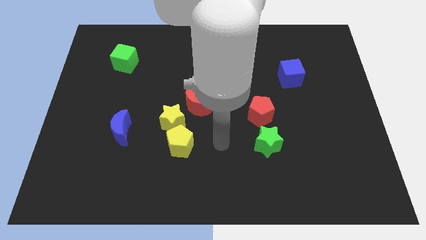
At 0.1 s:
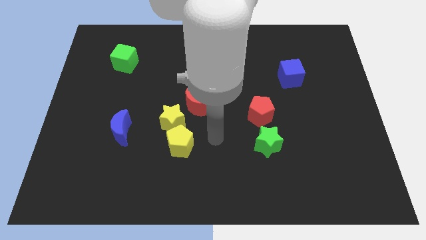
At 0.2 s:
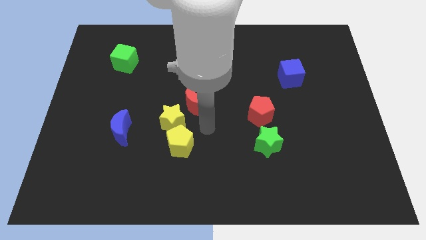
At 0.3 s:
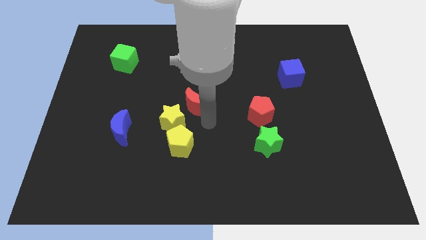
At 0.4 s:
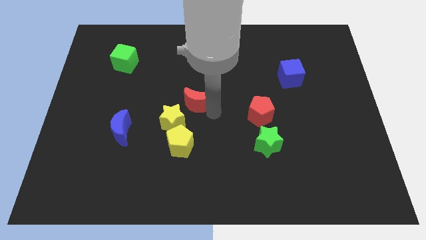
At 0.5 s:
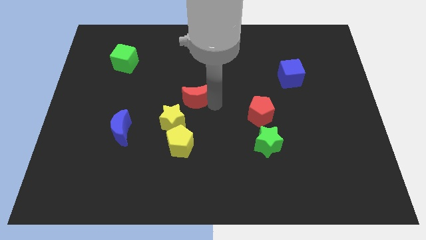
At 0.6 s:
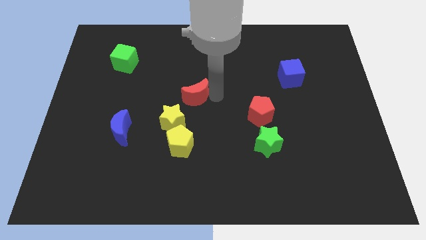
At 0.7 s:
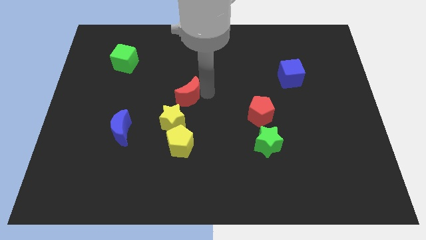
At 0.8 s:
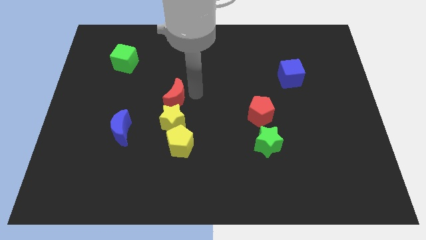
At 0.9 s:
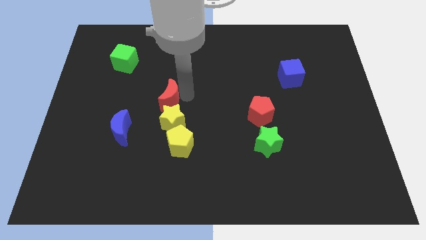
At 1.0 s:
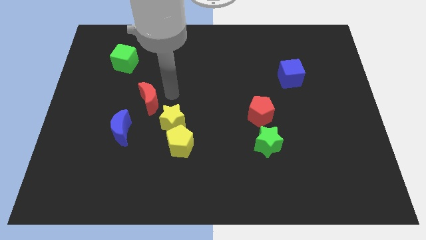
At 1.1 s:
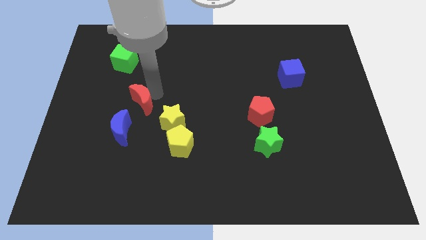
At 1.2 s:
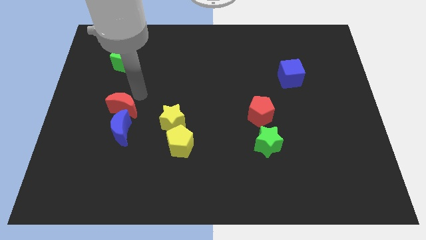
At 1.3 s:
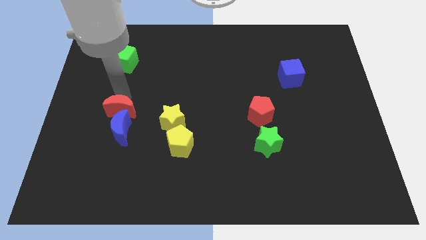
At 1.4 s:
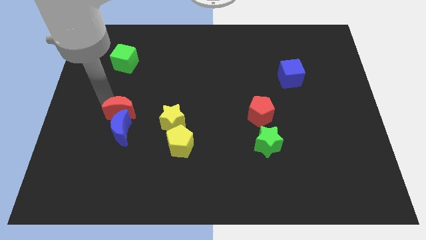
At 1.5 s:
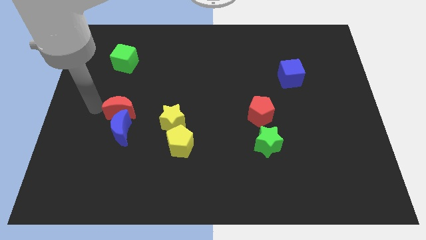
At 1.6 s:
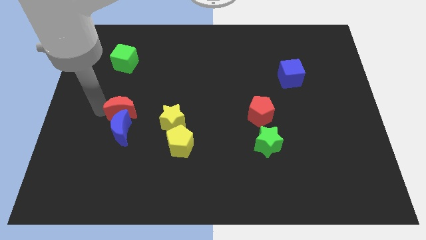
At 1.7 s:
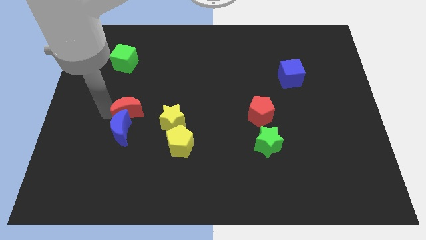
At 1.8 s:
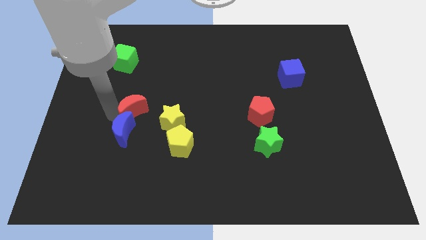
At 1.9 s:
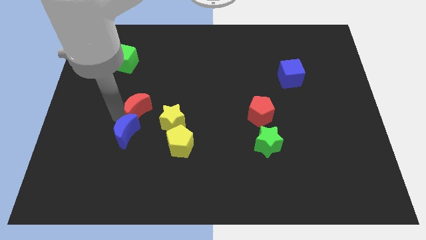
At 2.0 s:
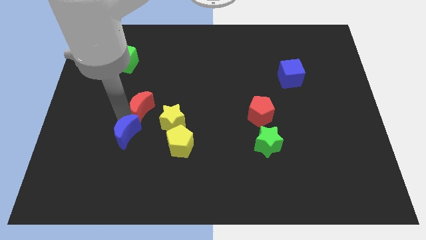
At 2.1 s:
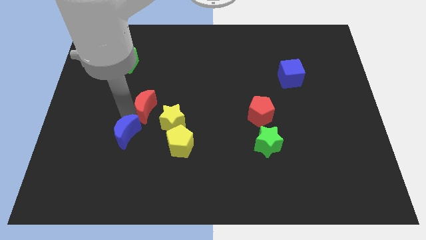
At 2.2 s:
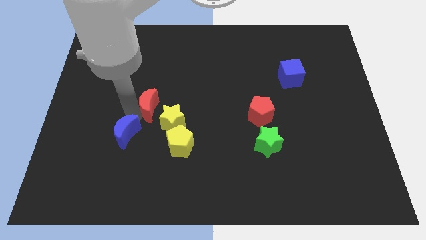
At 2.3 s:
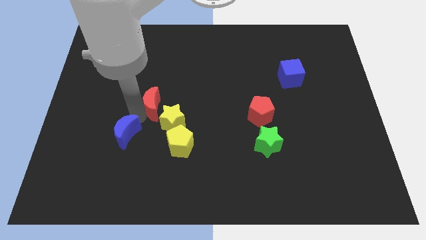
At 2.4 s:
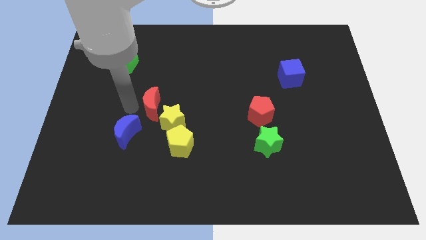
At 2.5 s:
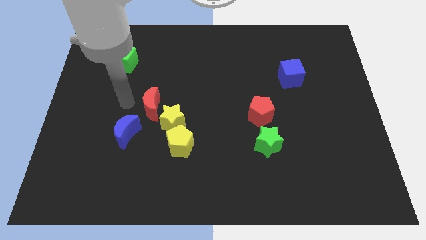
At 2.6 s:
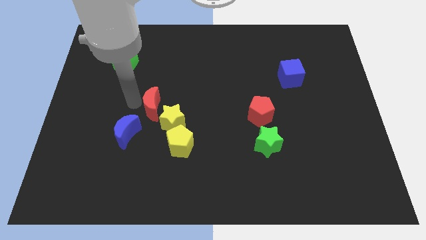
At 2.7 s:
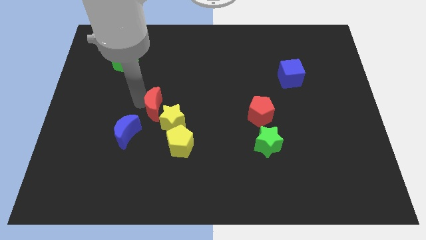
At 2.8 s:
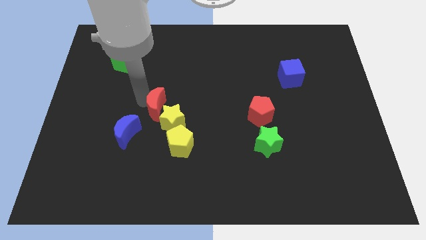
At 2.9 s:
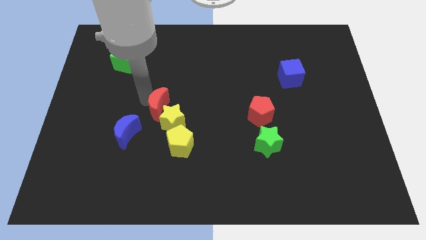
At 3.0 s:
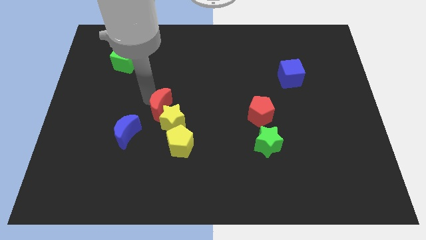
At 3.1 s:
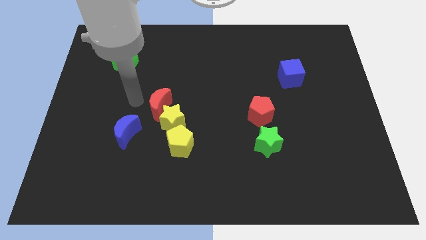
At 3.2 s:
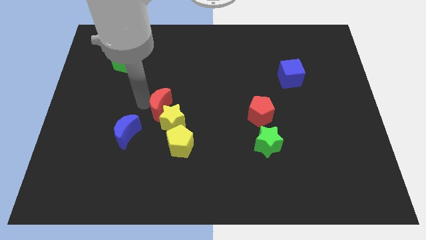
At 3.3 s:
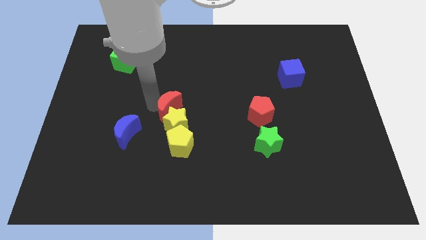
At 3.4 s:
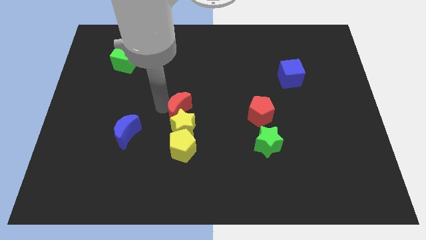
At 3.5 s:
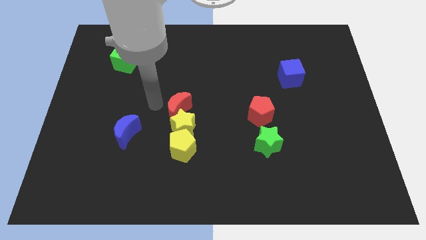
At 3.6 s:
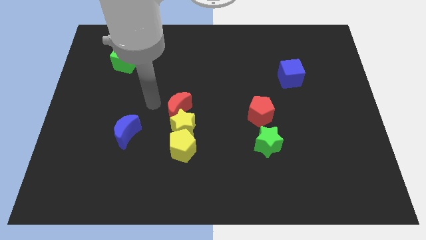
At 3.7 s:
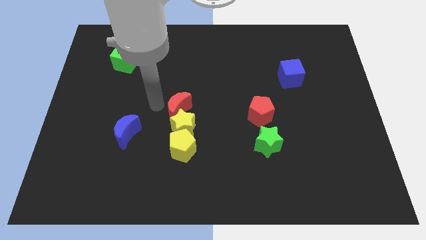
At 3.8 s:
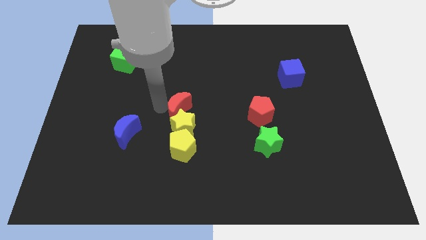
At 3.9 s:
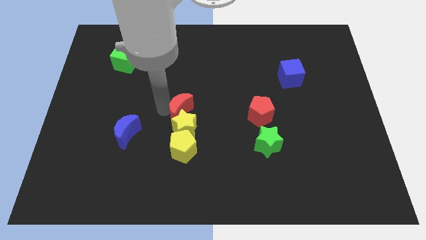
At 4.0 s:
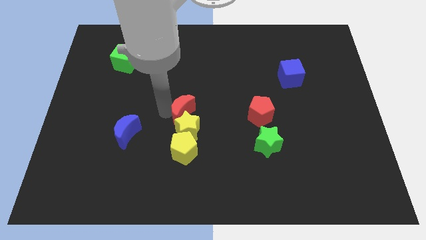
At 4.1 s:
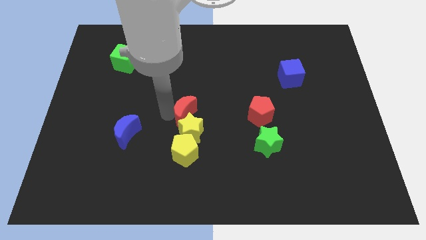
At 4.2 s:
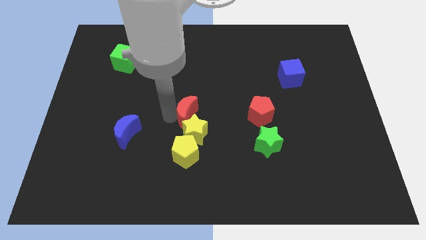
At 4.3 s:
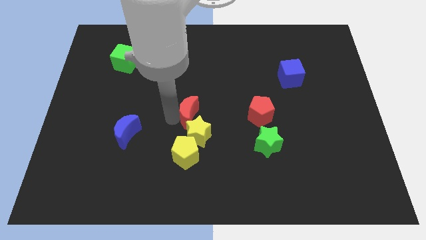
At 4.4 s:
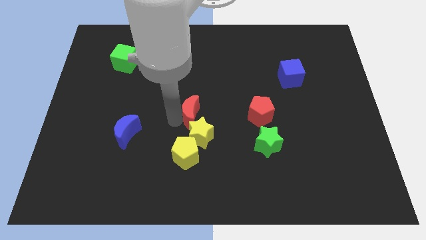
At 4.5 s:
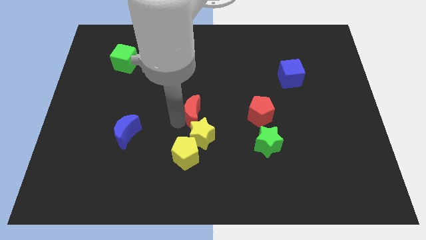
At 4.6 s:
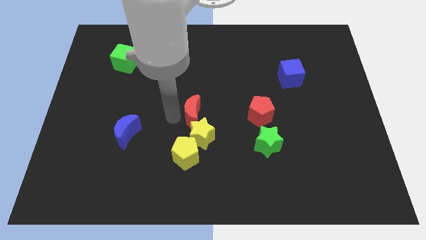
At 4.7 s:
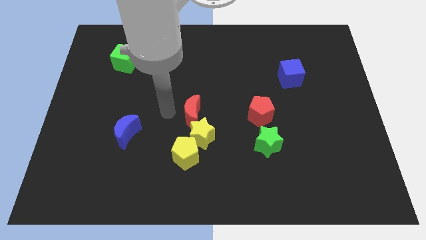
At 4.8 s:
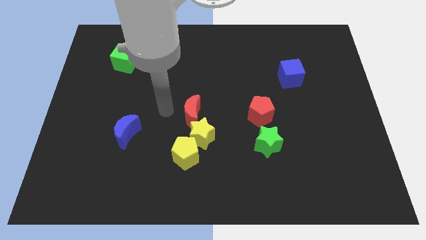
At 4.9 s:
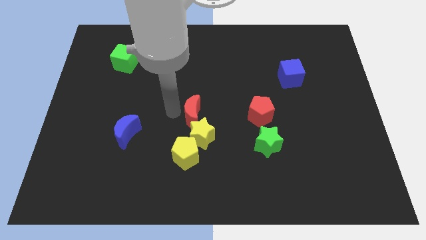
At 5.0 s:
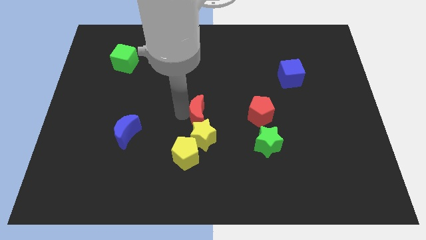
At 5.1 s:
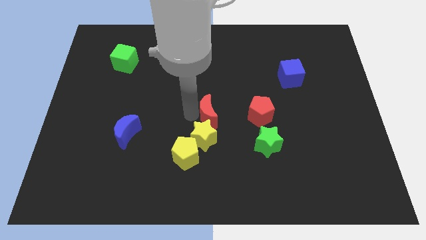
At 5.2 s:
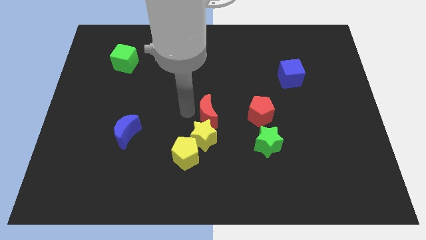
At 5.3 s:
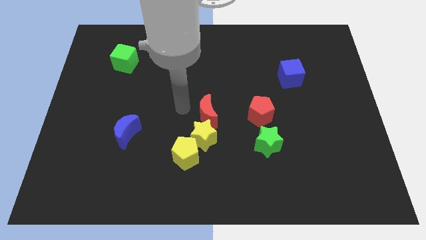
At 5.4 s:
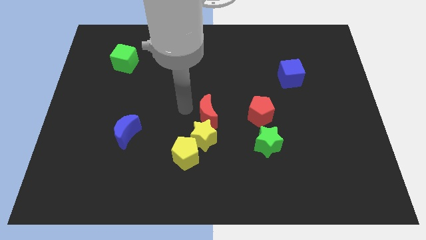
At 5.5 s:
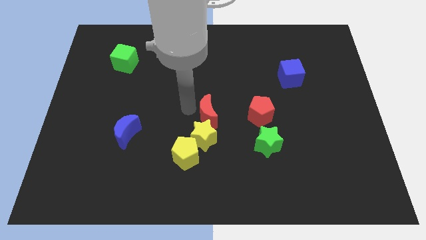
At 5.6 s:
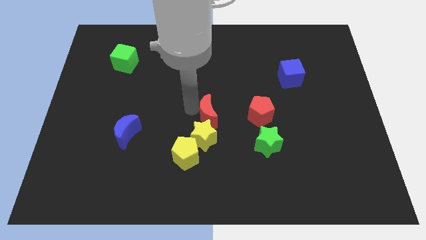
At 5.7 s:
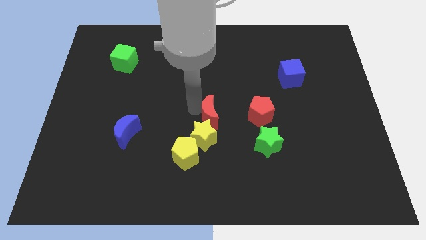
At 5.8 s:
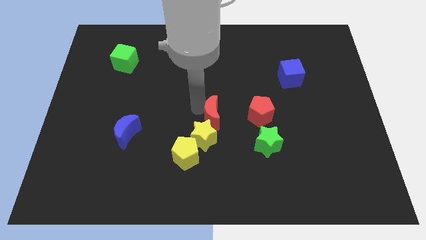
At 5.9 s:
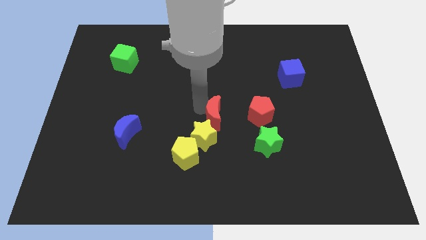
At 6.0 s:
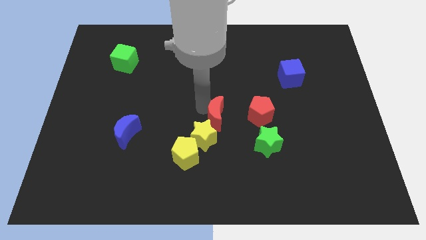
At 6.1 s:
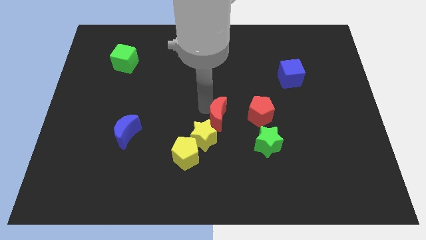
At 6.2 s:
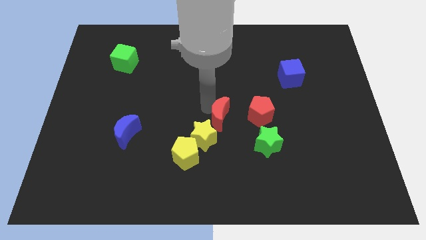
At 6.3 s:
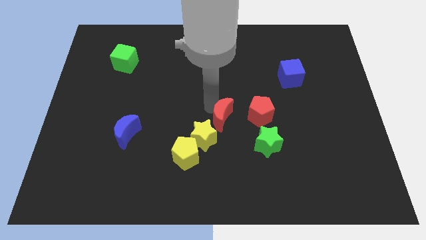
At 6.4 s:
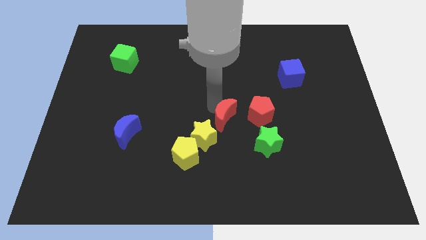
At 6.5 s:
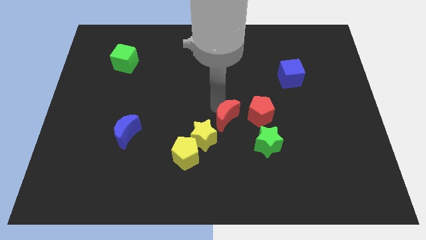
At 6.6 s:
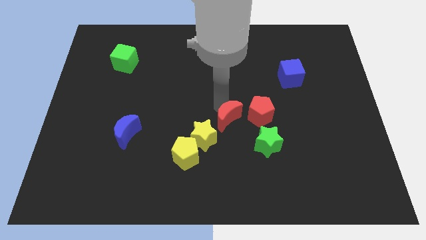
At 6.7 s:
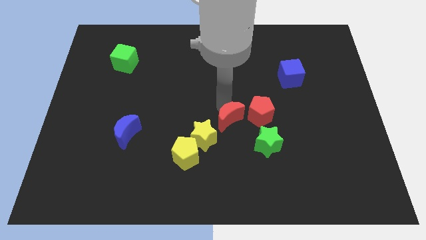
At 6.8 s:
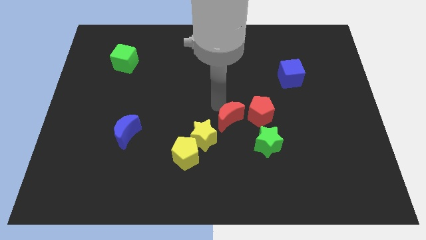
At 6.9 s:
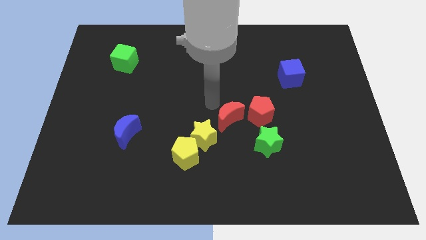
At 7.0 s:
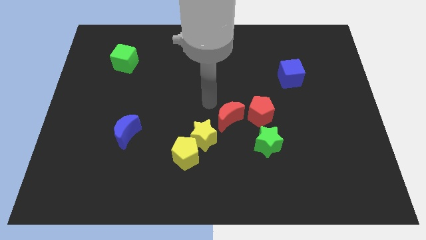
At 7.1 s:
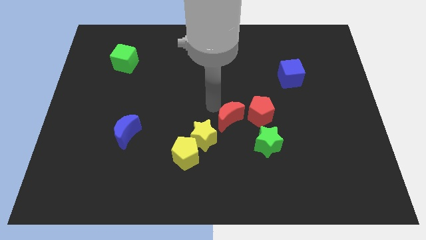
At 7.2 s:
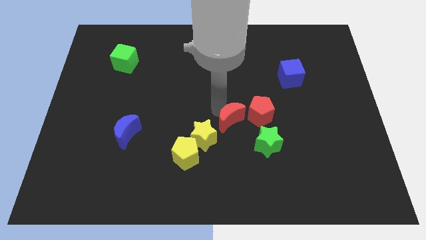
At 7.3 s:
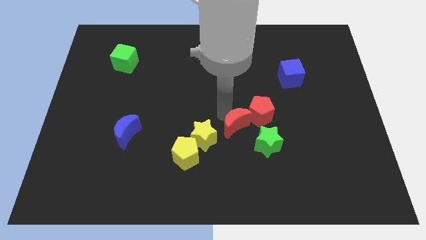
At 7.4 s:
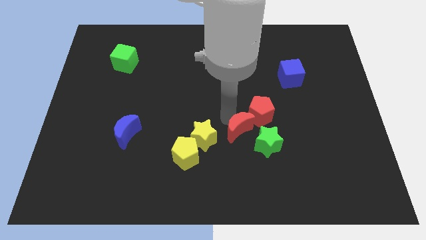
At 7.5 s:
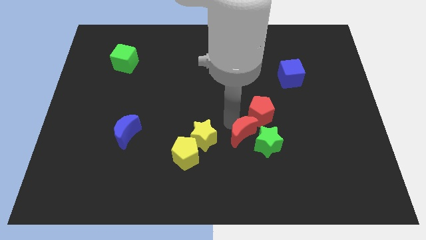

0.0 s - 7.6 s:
slide the red moon close to the green star

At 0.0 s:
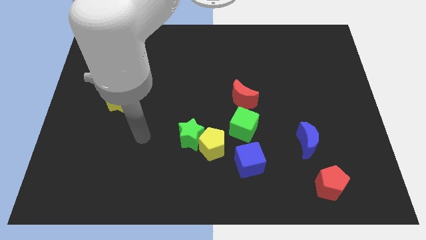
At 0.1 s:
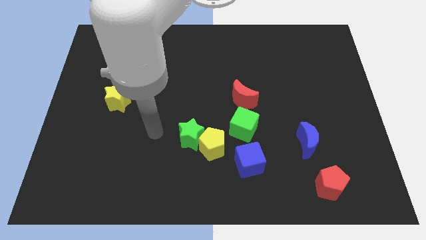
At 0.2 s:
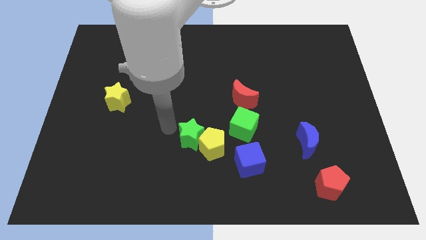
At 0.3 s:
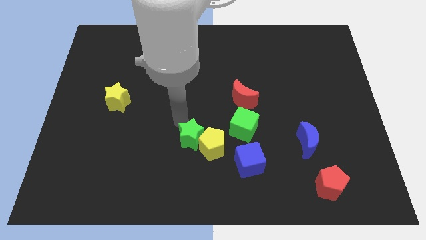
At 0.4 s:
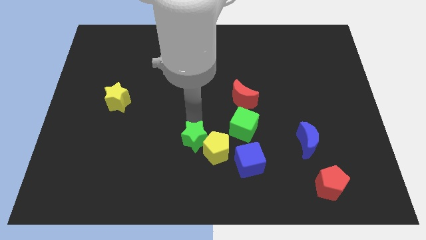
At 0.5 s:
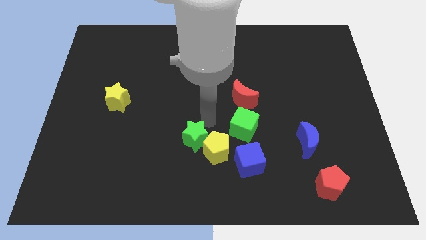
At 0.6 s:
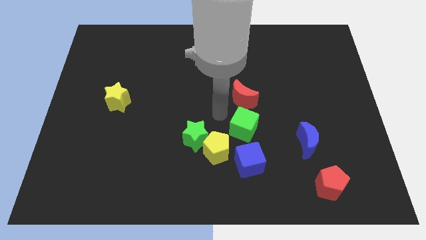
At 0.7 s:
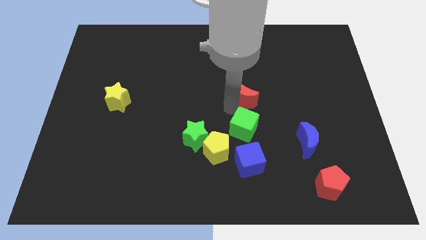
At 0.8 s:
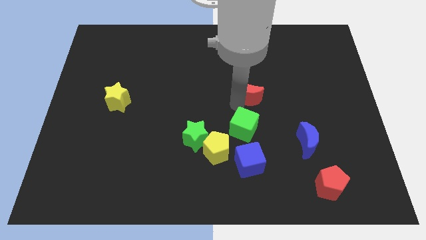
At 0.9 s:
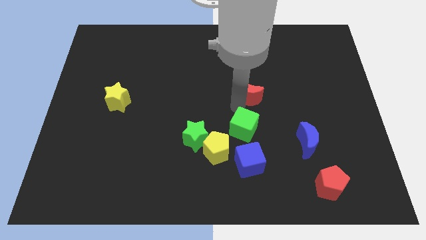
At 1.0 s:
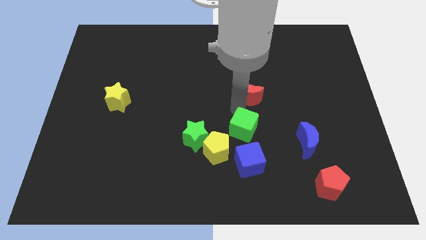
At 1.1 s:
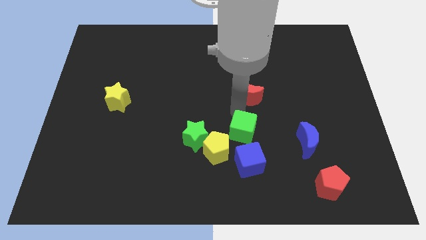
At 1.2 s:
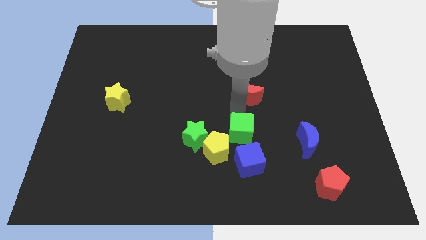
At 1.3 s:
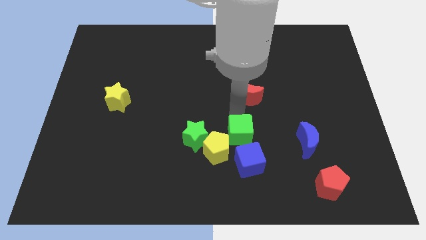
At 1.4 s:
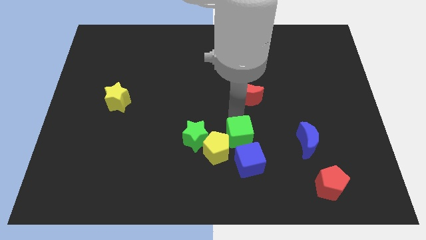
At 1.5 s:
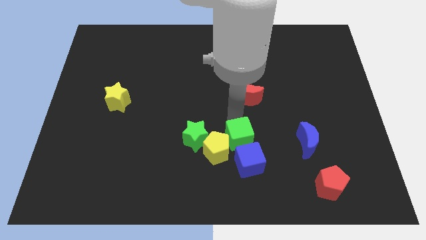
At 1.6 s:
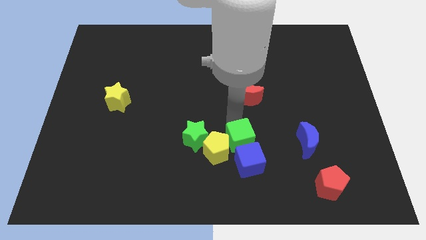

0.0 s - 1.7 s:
push the green cube towards the blue cube
